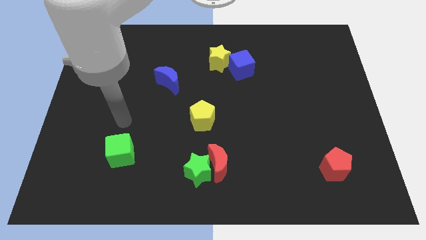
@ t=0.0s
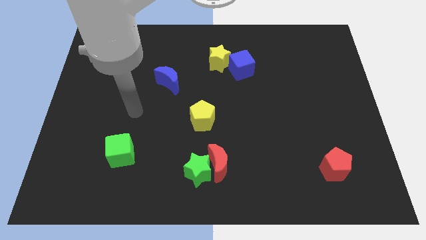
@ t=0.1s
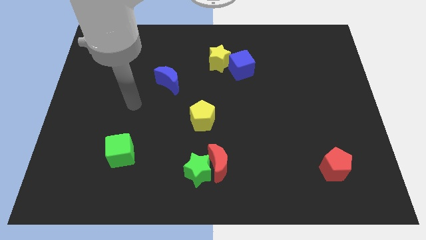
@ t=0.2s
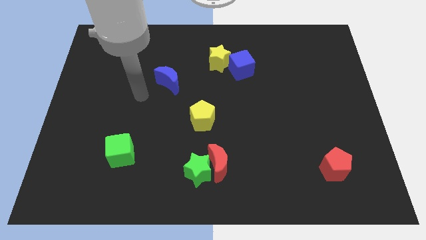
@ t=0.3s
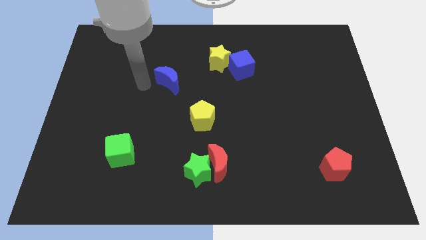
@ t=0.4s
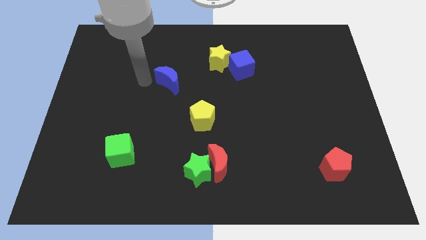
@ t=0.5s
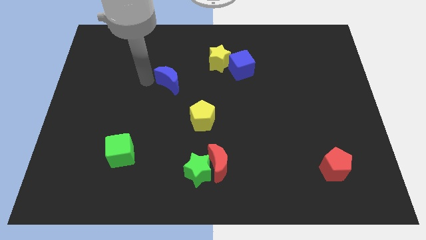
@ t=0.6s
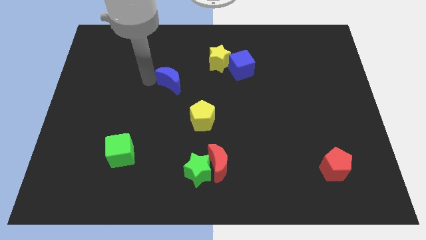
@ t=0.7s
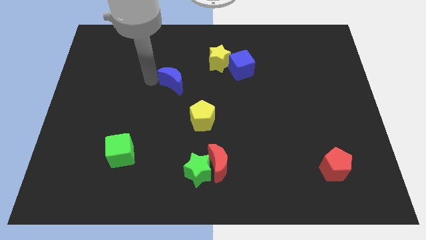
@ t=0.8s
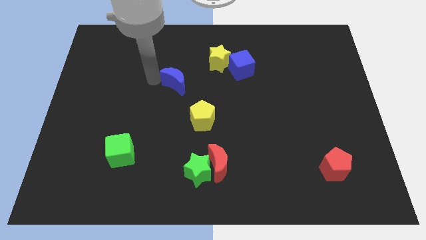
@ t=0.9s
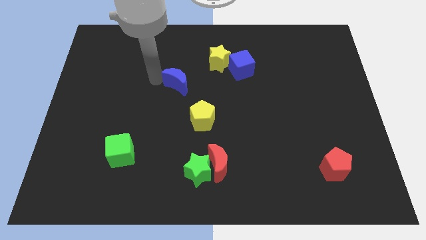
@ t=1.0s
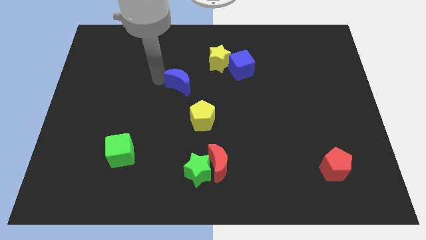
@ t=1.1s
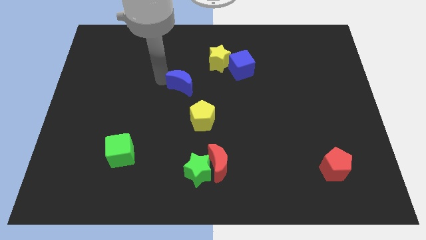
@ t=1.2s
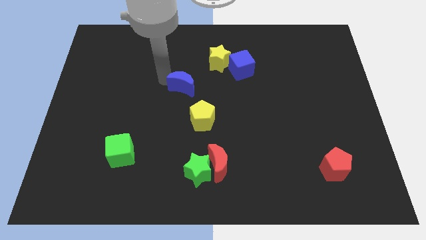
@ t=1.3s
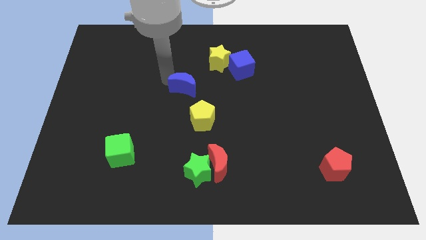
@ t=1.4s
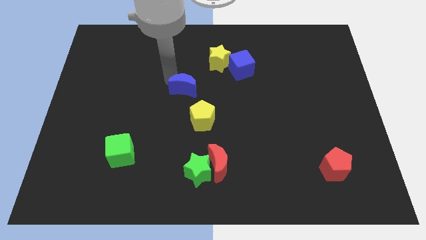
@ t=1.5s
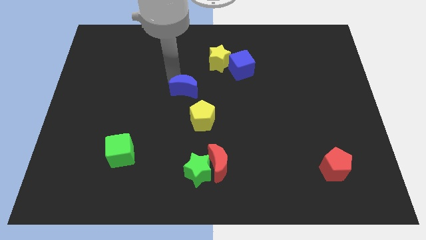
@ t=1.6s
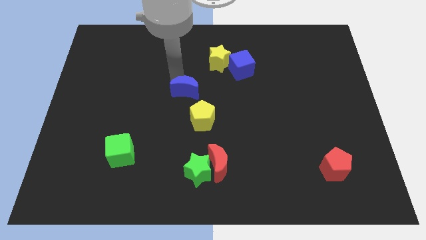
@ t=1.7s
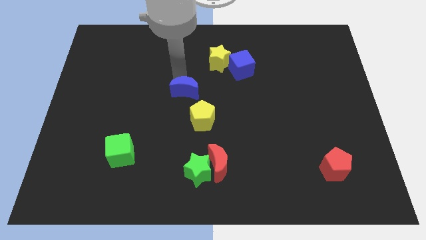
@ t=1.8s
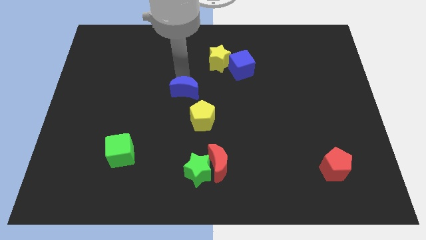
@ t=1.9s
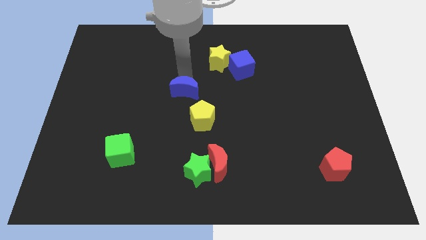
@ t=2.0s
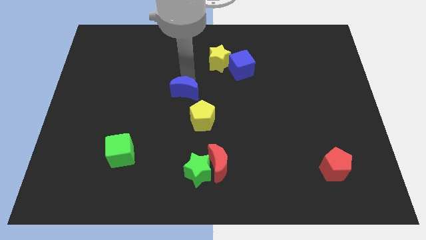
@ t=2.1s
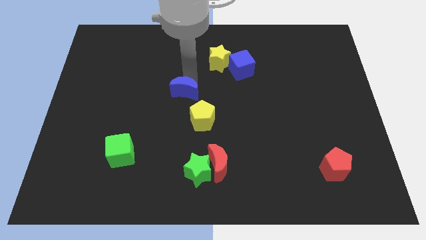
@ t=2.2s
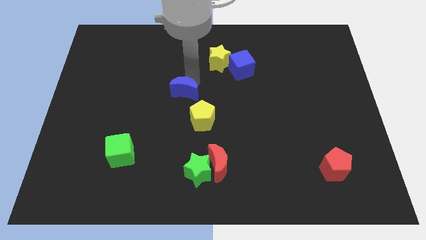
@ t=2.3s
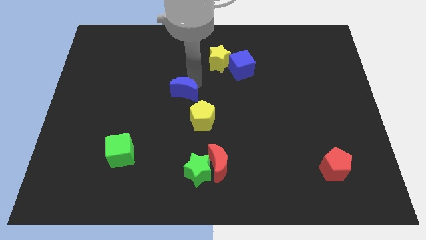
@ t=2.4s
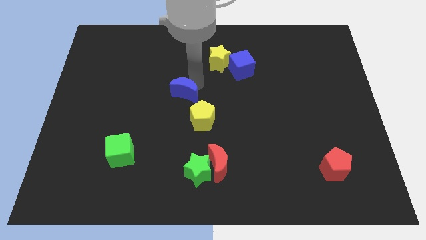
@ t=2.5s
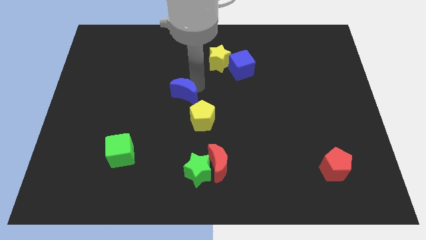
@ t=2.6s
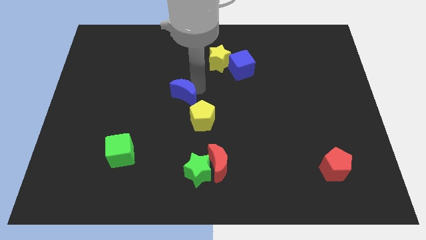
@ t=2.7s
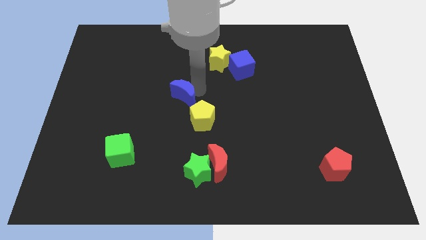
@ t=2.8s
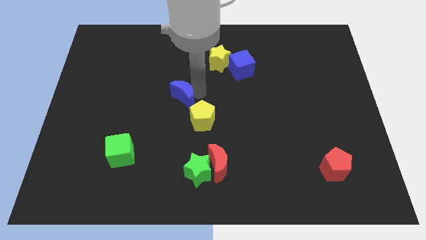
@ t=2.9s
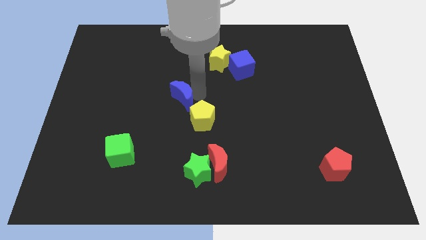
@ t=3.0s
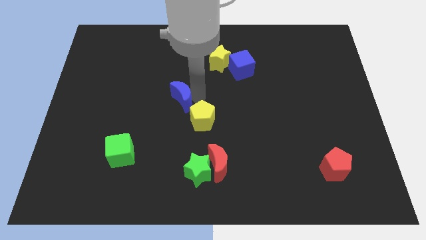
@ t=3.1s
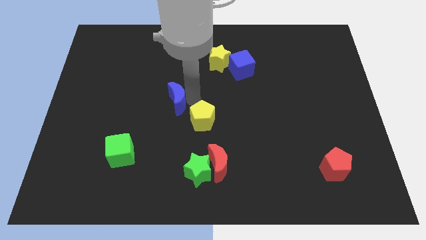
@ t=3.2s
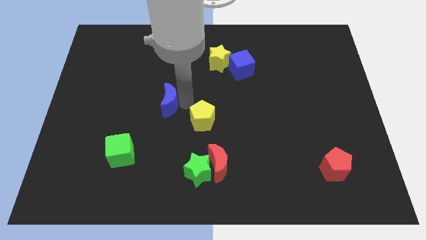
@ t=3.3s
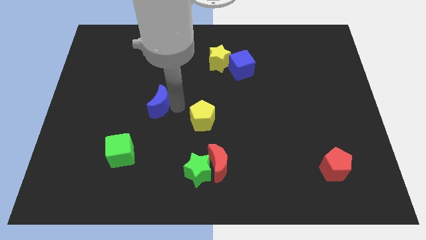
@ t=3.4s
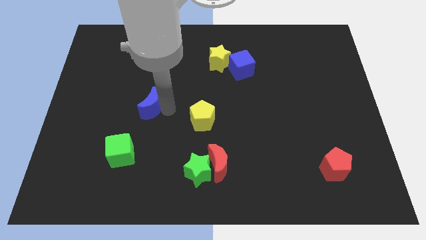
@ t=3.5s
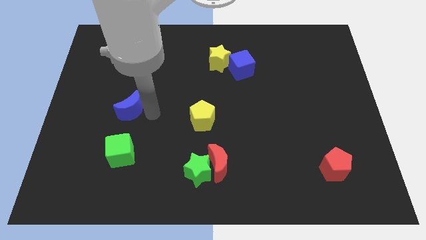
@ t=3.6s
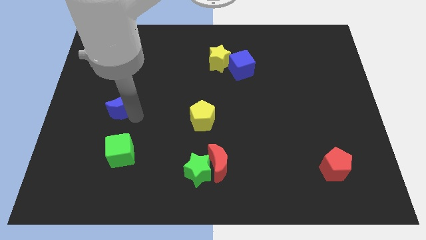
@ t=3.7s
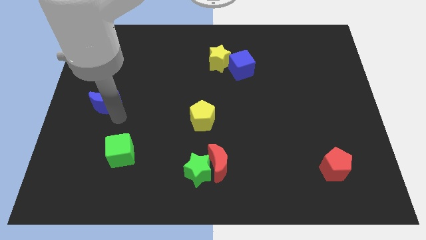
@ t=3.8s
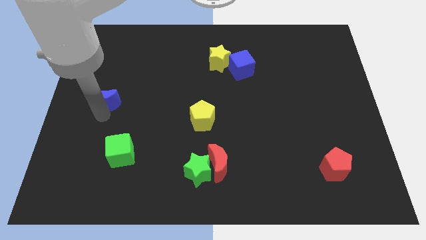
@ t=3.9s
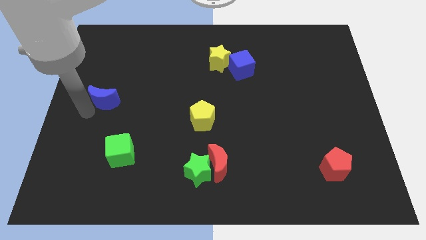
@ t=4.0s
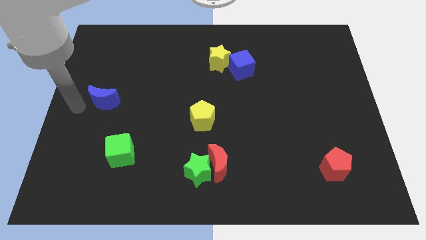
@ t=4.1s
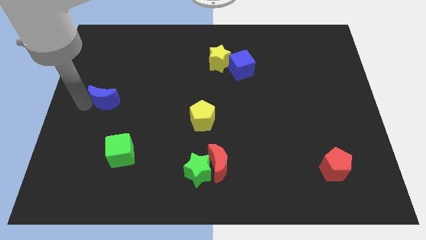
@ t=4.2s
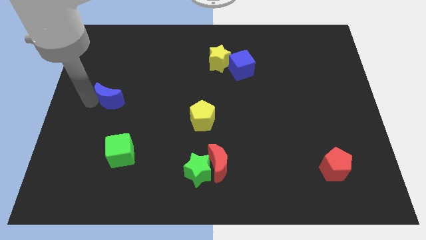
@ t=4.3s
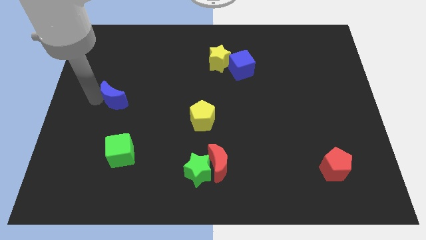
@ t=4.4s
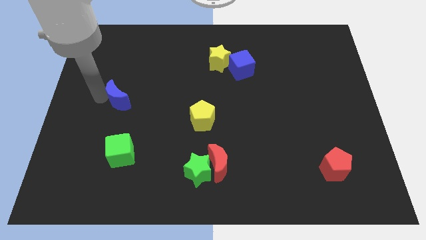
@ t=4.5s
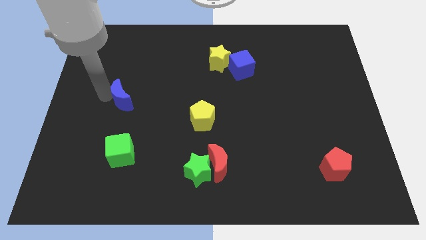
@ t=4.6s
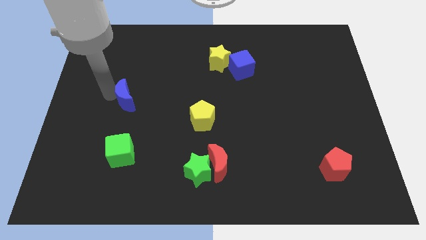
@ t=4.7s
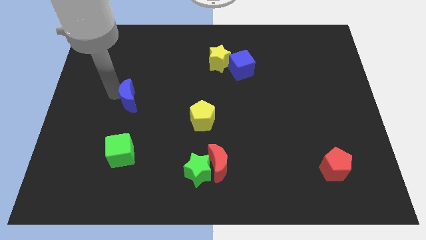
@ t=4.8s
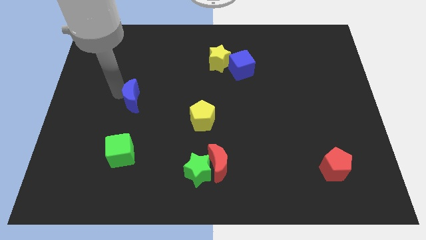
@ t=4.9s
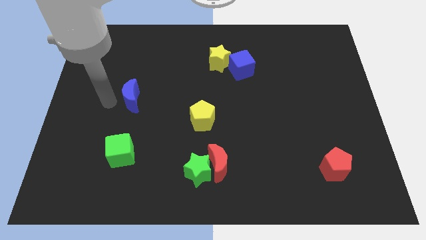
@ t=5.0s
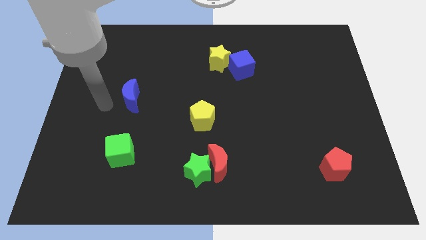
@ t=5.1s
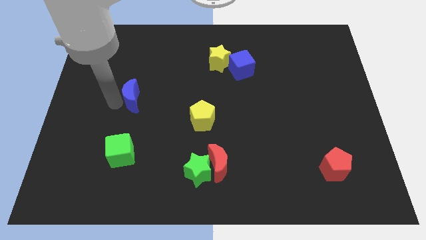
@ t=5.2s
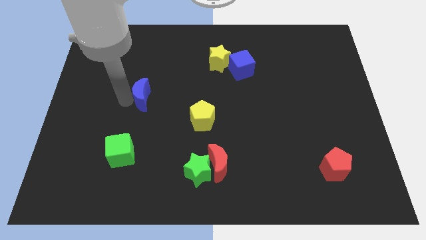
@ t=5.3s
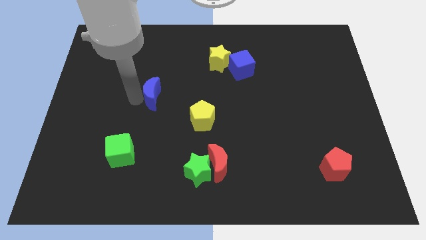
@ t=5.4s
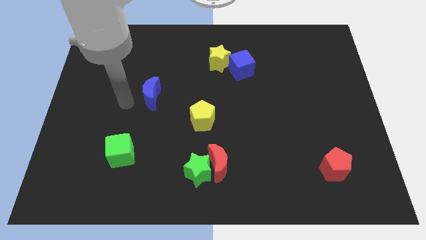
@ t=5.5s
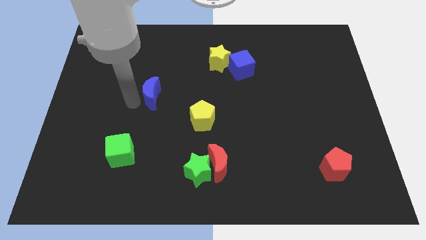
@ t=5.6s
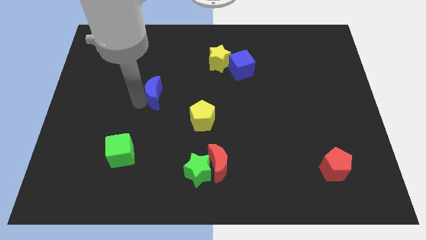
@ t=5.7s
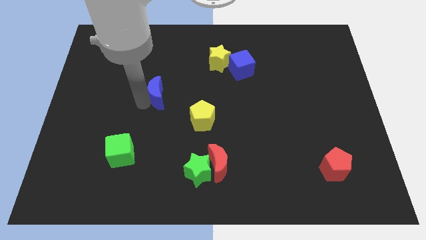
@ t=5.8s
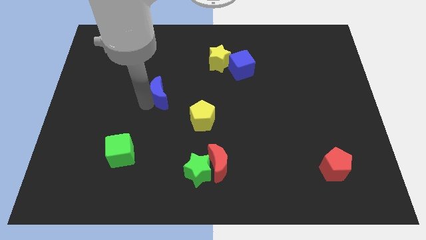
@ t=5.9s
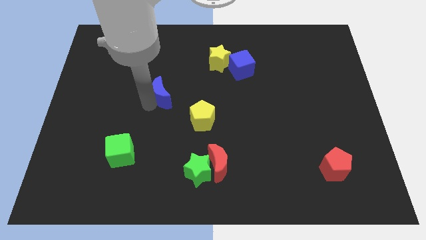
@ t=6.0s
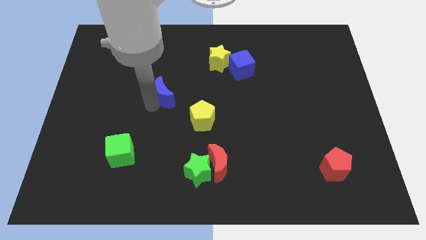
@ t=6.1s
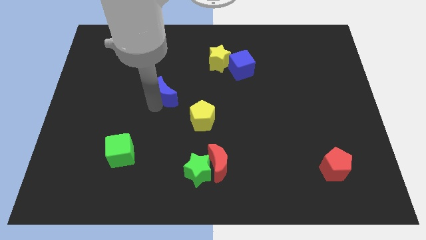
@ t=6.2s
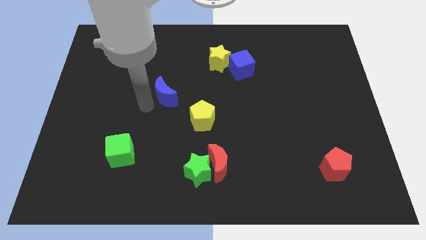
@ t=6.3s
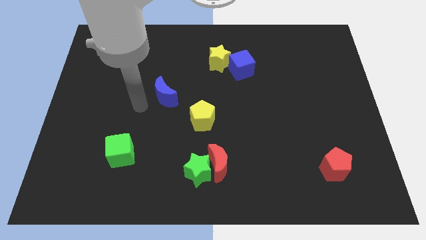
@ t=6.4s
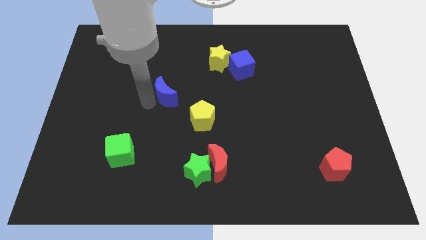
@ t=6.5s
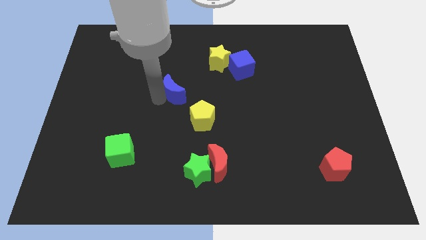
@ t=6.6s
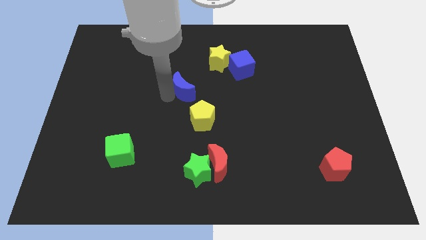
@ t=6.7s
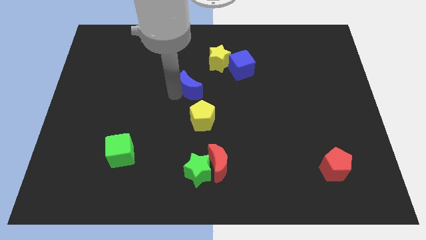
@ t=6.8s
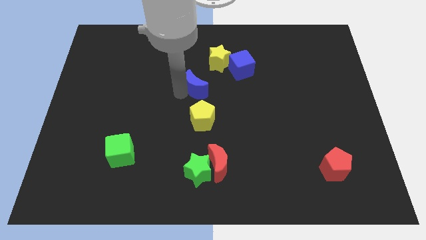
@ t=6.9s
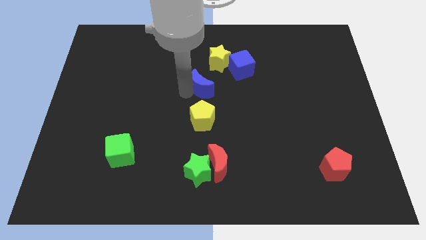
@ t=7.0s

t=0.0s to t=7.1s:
move the blue moon right a bit

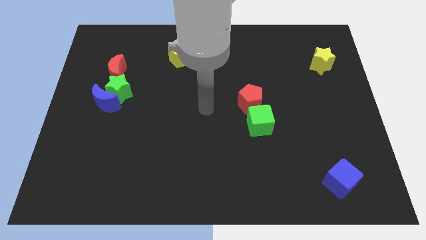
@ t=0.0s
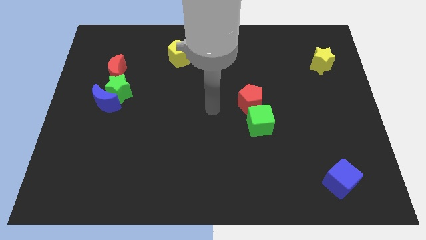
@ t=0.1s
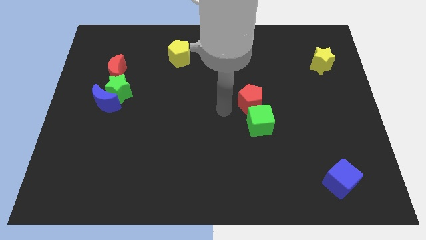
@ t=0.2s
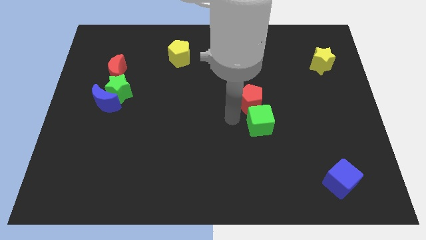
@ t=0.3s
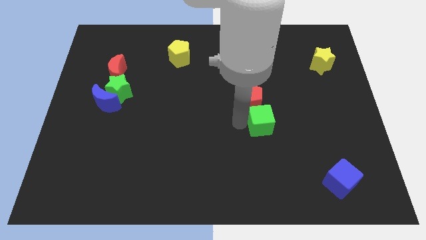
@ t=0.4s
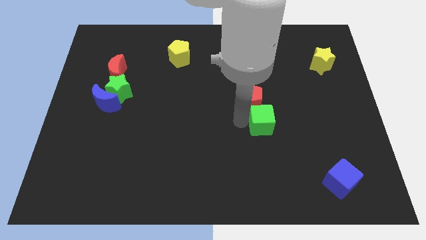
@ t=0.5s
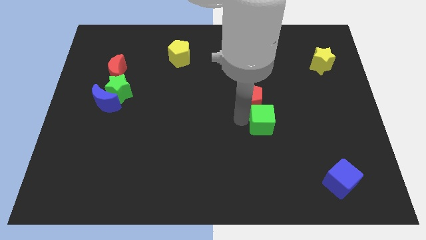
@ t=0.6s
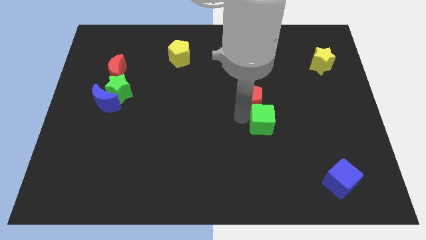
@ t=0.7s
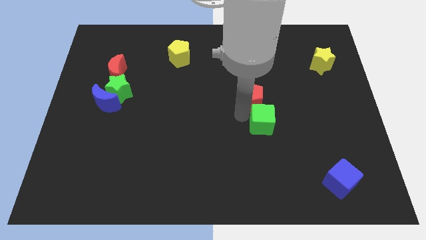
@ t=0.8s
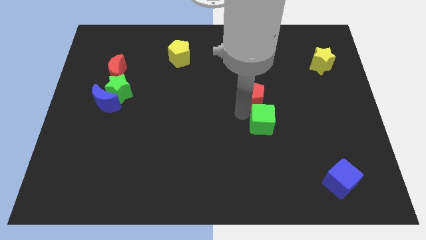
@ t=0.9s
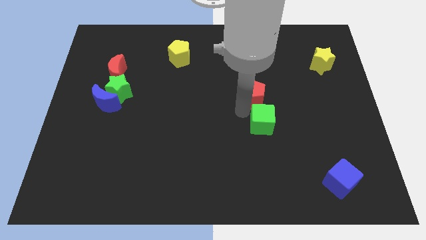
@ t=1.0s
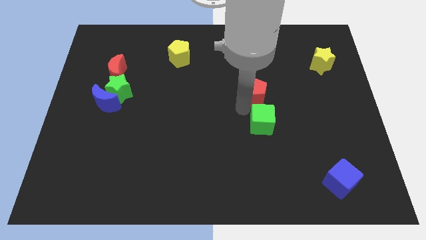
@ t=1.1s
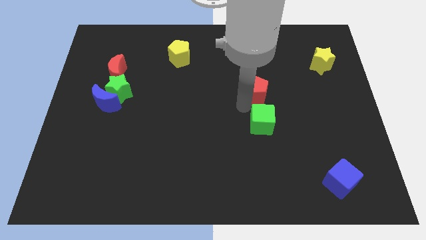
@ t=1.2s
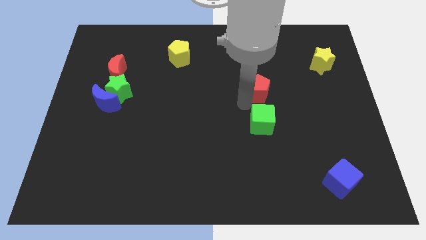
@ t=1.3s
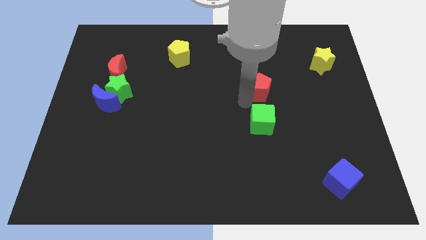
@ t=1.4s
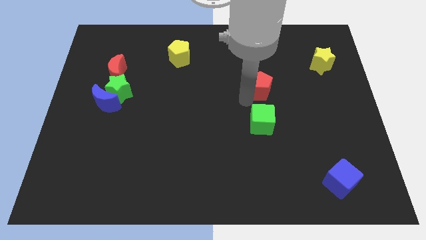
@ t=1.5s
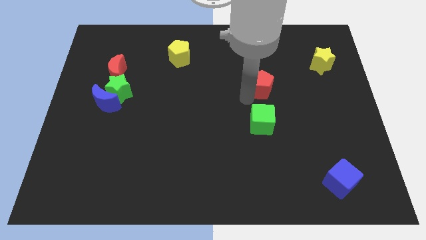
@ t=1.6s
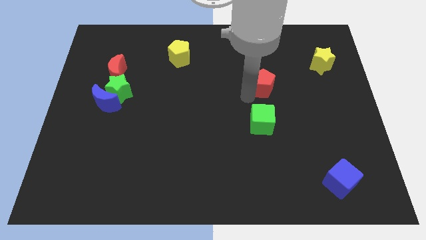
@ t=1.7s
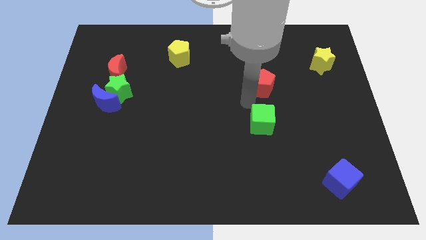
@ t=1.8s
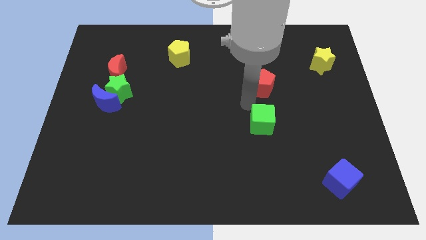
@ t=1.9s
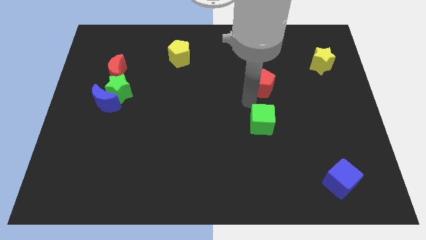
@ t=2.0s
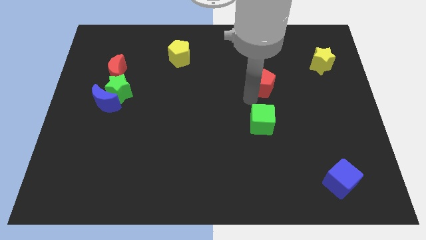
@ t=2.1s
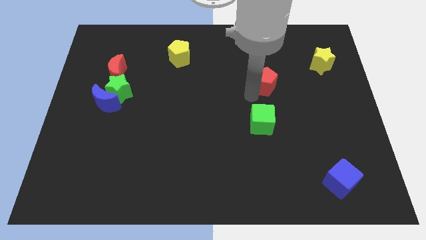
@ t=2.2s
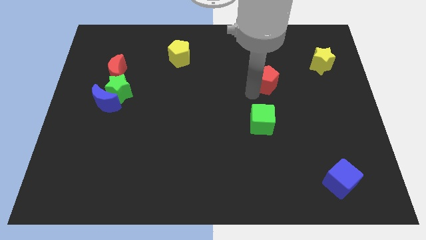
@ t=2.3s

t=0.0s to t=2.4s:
move the red pentagon upwards and right somewhat
